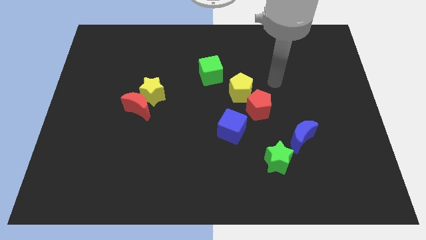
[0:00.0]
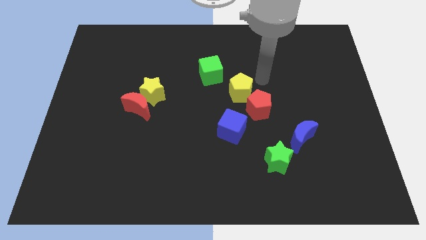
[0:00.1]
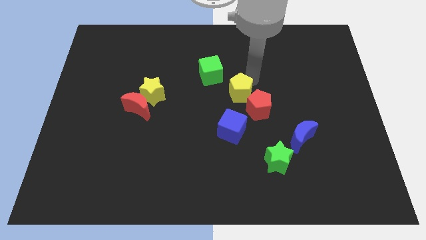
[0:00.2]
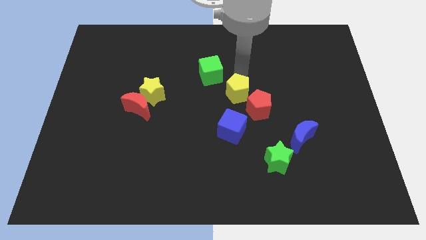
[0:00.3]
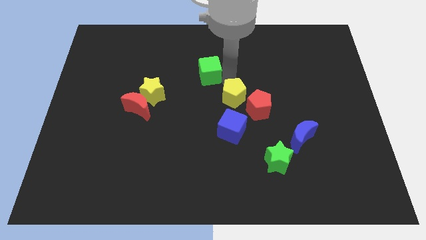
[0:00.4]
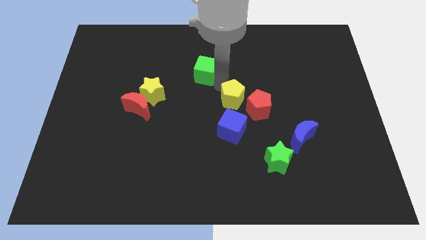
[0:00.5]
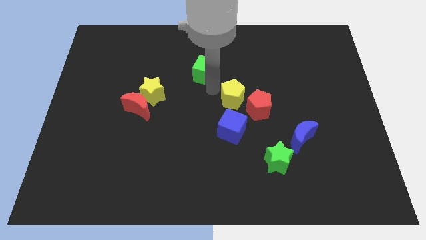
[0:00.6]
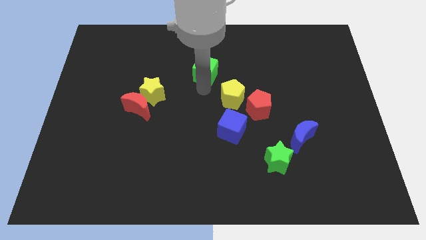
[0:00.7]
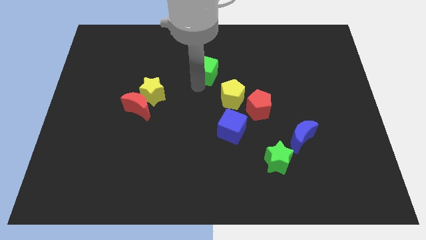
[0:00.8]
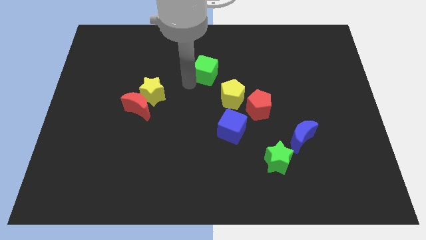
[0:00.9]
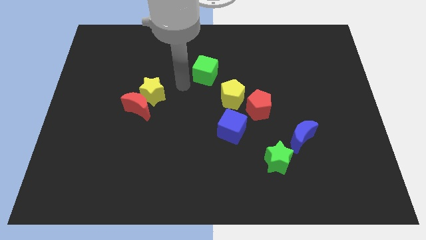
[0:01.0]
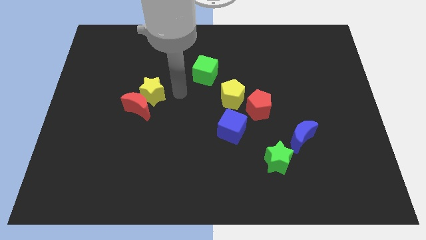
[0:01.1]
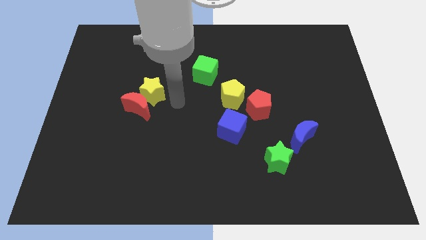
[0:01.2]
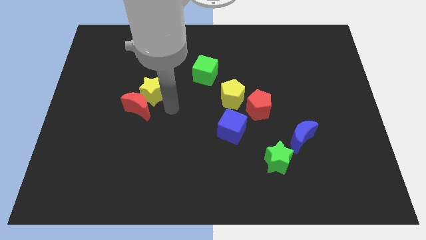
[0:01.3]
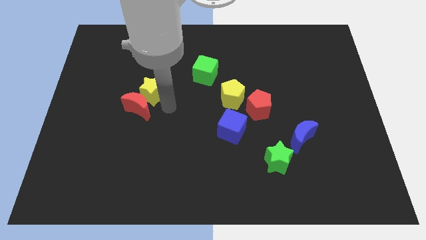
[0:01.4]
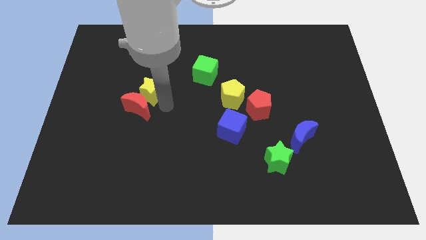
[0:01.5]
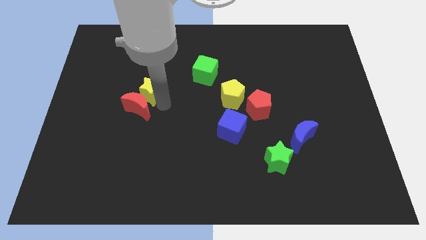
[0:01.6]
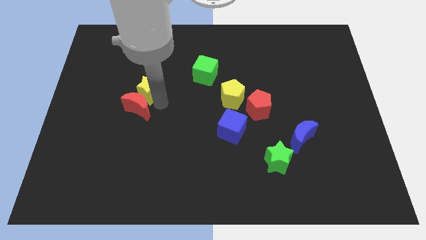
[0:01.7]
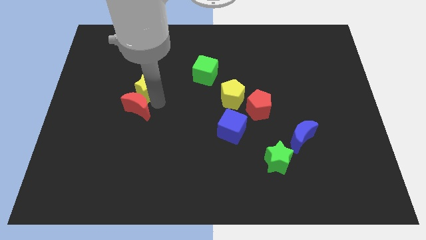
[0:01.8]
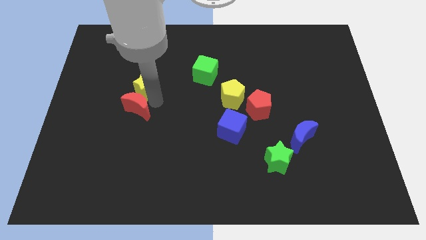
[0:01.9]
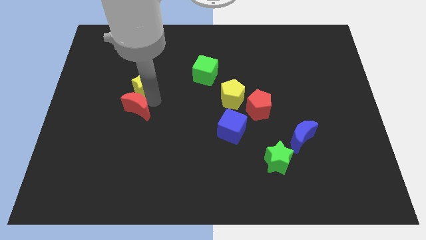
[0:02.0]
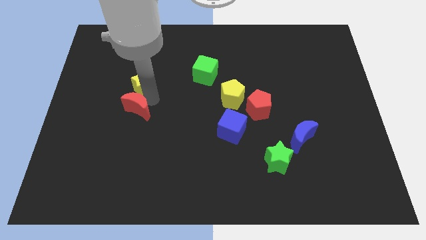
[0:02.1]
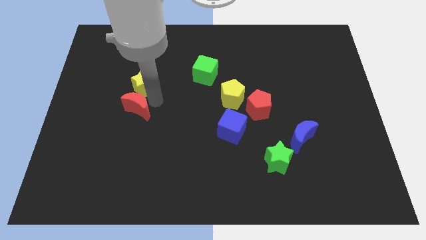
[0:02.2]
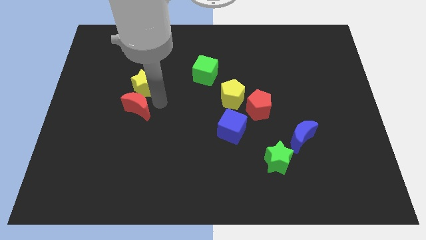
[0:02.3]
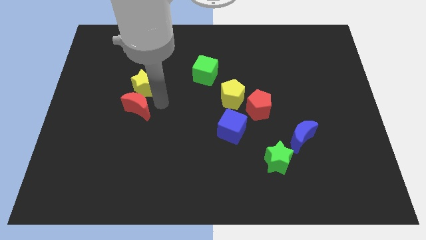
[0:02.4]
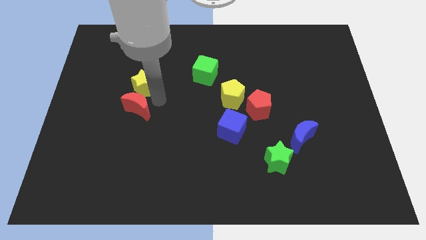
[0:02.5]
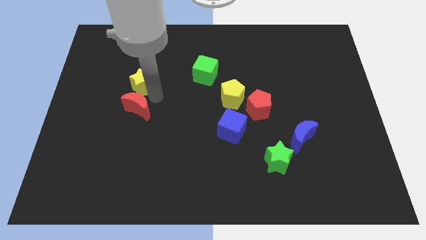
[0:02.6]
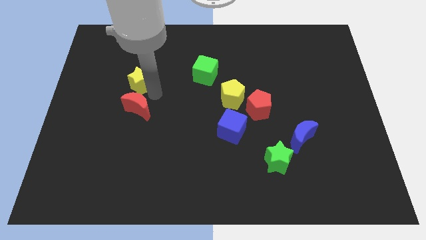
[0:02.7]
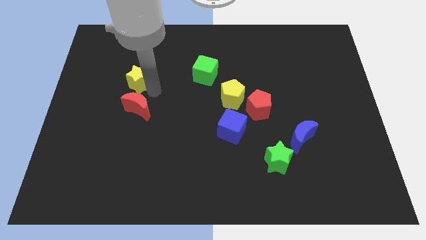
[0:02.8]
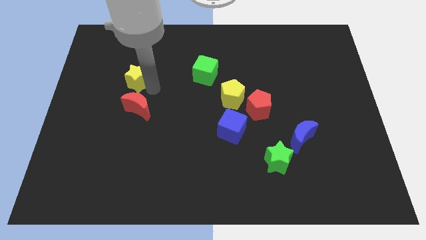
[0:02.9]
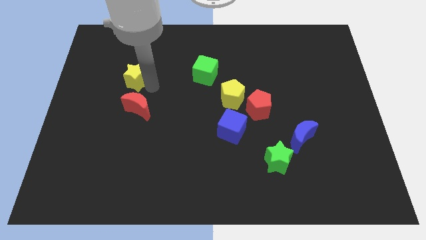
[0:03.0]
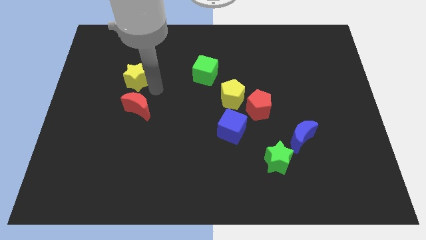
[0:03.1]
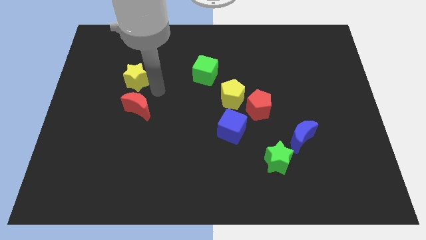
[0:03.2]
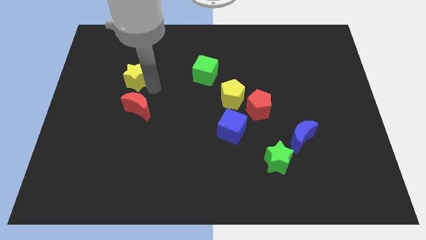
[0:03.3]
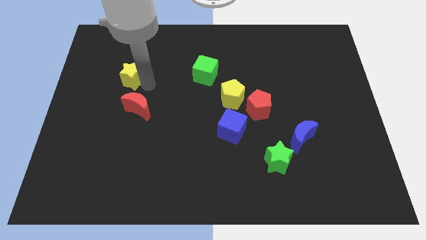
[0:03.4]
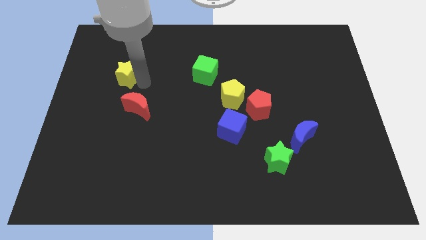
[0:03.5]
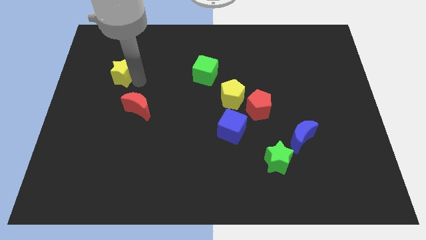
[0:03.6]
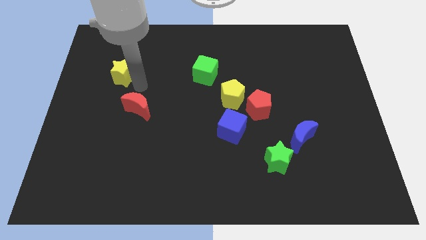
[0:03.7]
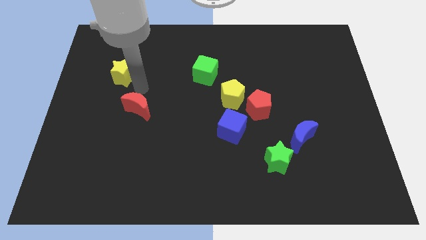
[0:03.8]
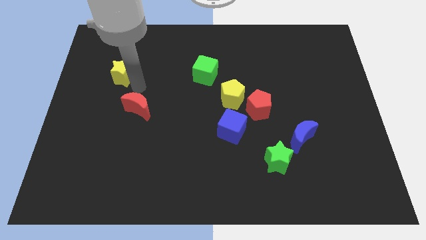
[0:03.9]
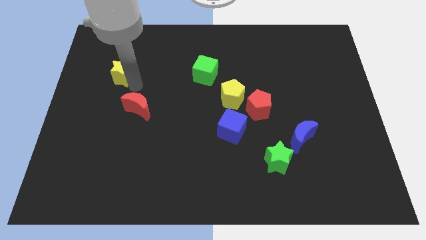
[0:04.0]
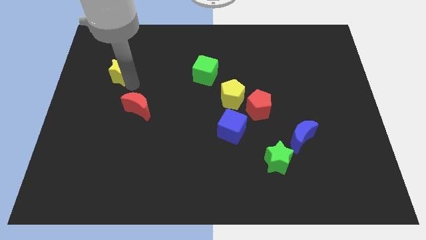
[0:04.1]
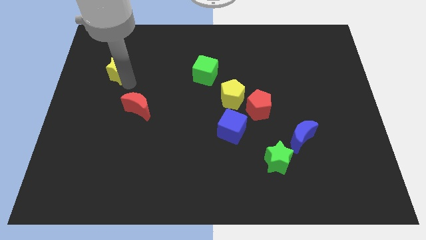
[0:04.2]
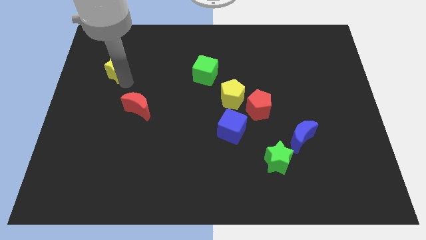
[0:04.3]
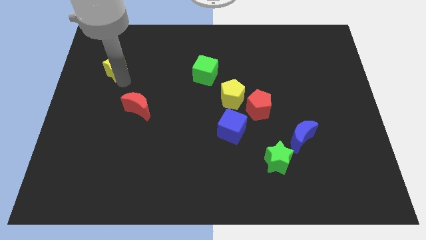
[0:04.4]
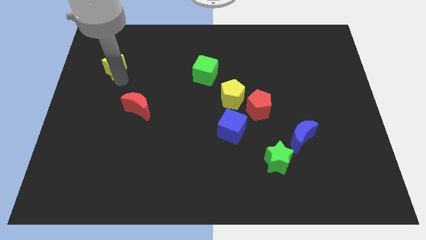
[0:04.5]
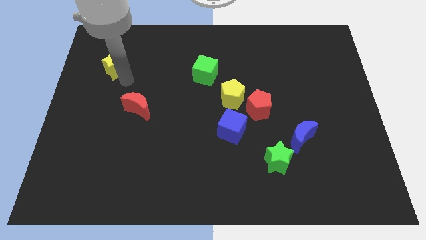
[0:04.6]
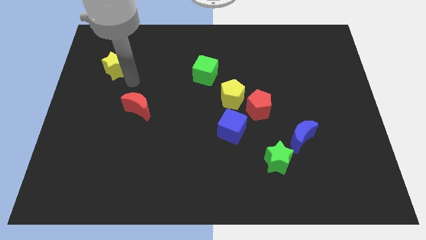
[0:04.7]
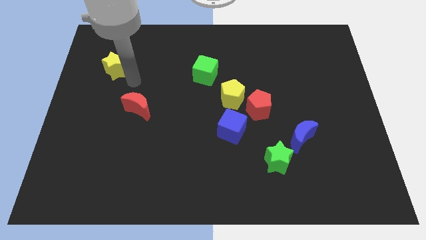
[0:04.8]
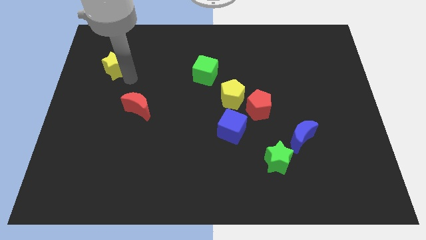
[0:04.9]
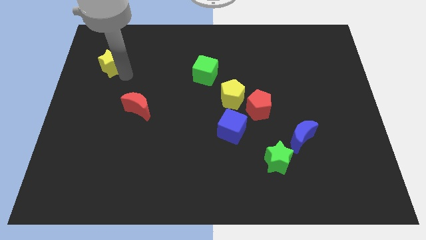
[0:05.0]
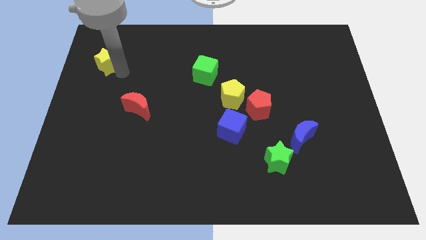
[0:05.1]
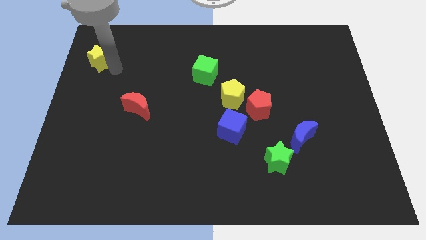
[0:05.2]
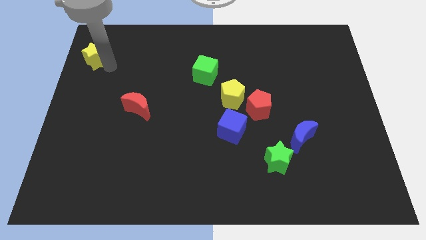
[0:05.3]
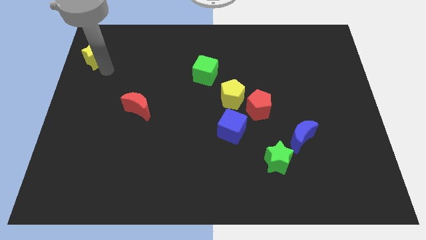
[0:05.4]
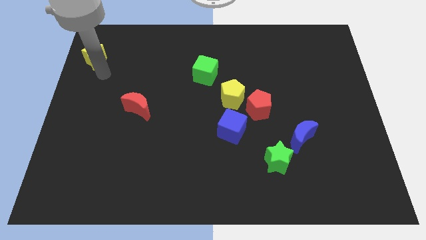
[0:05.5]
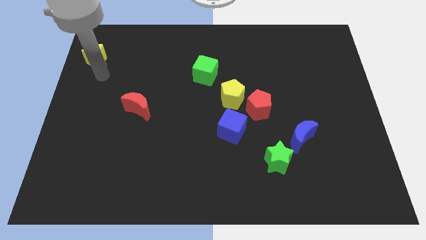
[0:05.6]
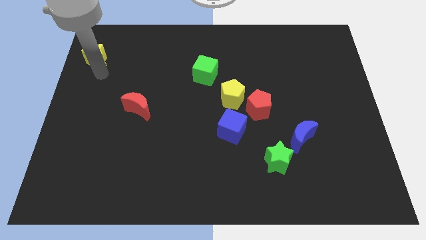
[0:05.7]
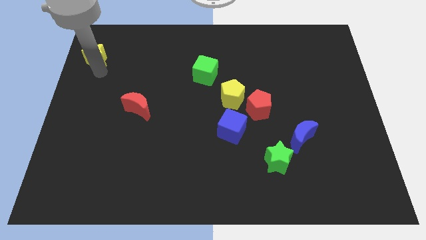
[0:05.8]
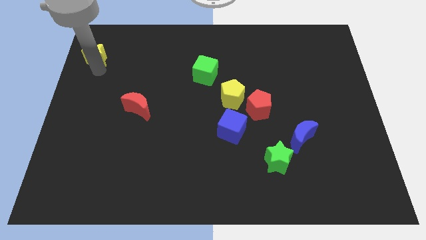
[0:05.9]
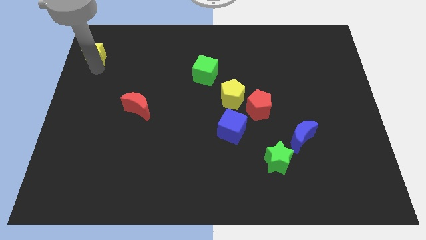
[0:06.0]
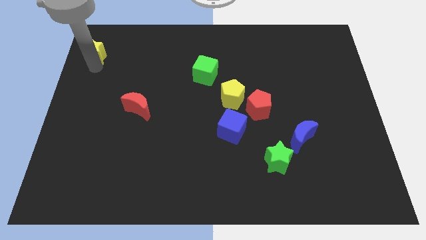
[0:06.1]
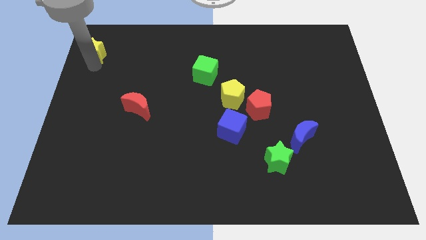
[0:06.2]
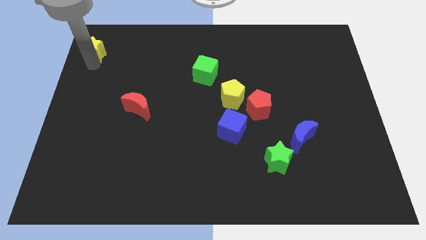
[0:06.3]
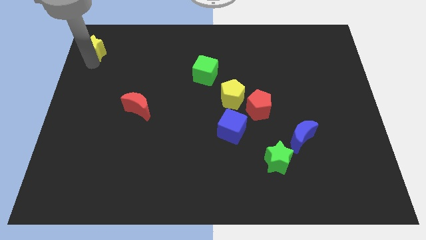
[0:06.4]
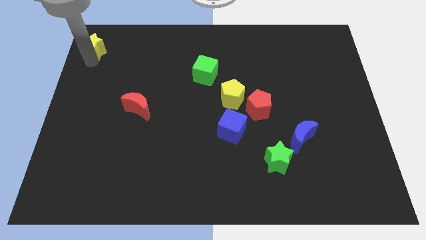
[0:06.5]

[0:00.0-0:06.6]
slide the yellow star to the upper left corner
